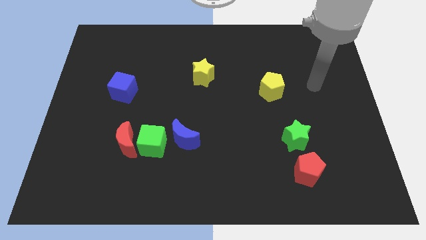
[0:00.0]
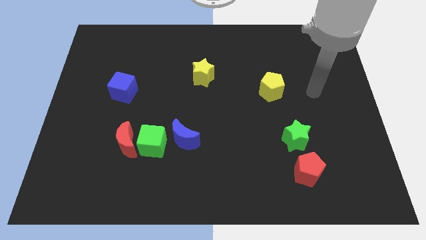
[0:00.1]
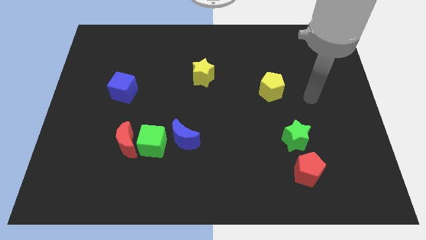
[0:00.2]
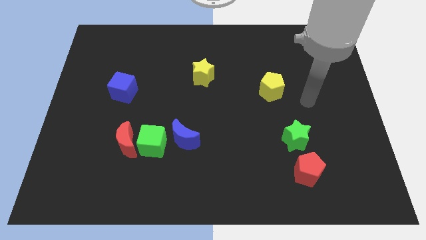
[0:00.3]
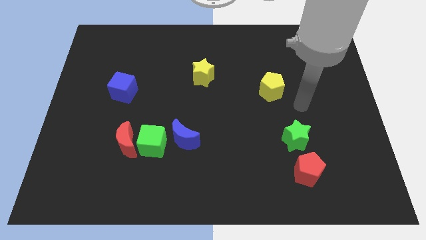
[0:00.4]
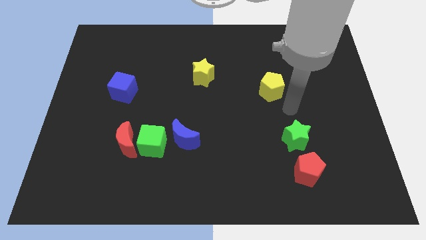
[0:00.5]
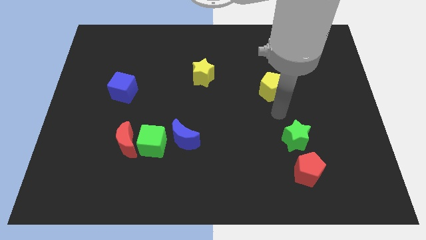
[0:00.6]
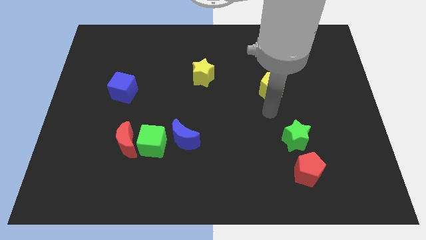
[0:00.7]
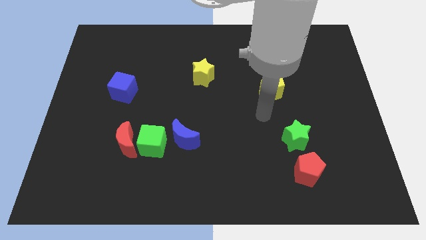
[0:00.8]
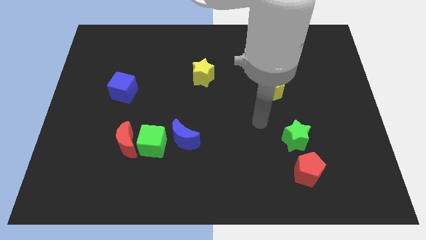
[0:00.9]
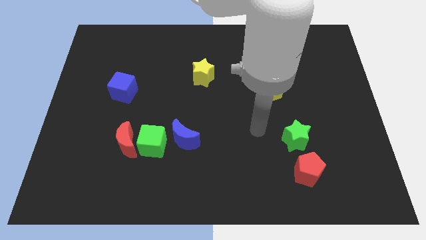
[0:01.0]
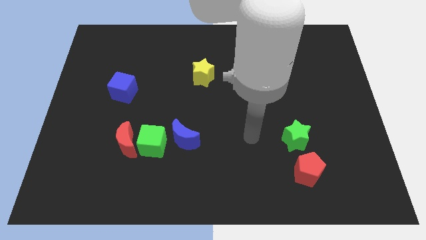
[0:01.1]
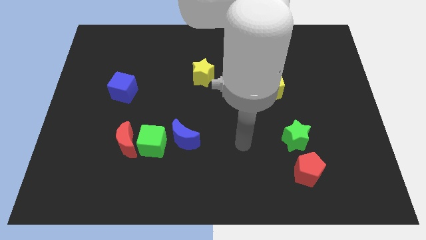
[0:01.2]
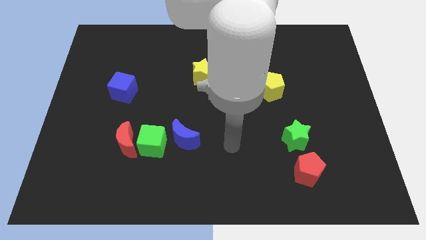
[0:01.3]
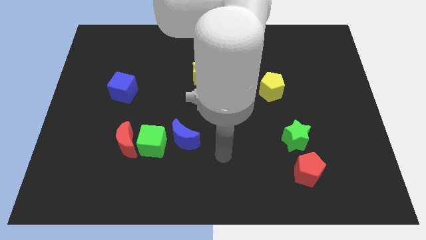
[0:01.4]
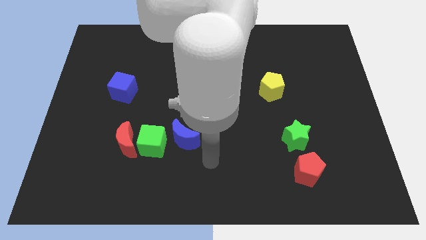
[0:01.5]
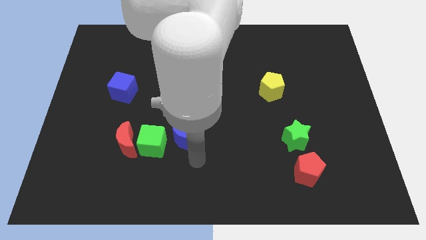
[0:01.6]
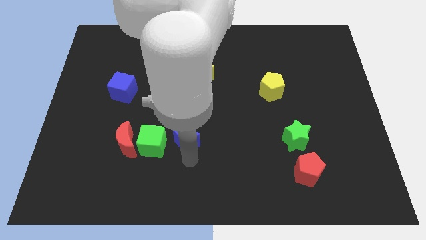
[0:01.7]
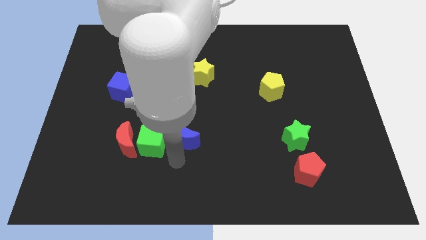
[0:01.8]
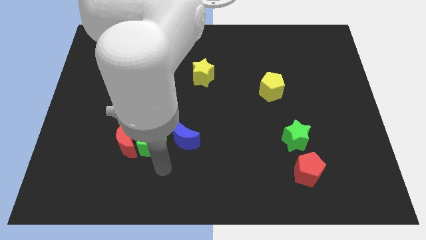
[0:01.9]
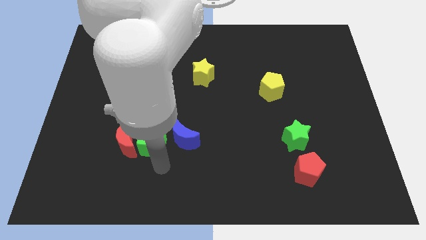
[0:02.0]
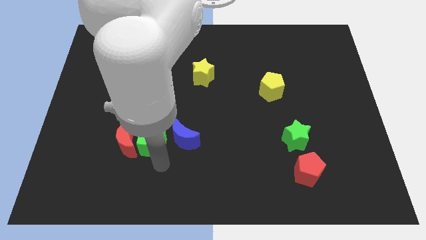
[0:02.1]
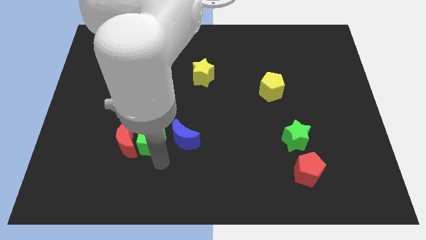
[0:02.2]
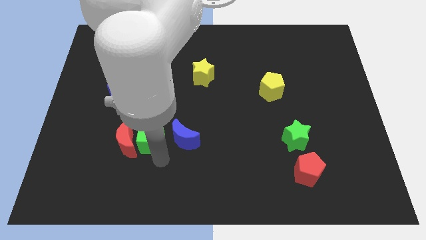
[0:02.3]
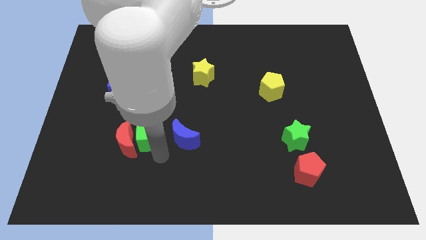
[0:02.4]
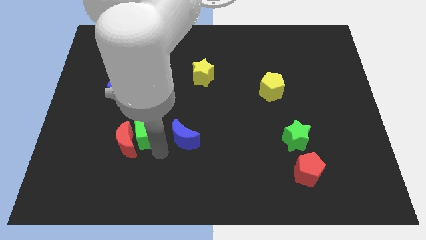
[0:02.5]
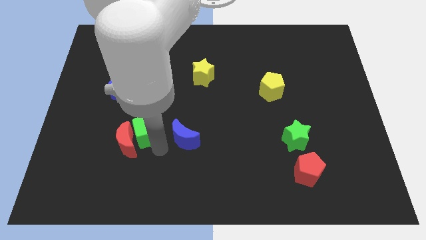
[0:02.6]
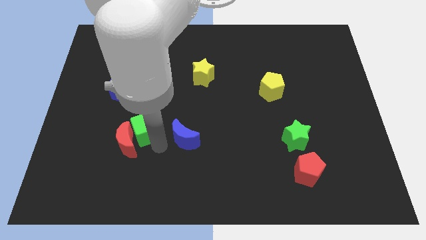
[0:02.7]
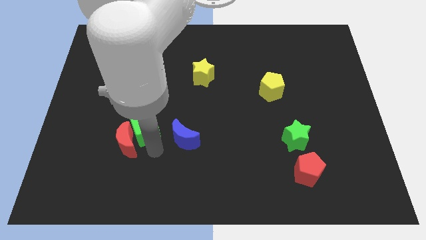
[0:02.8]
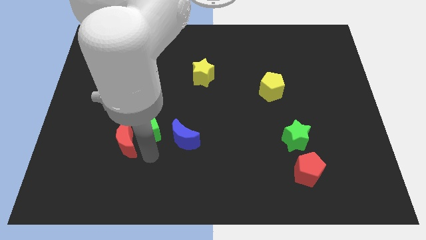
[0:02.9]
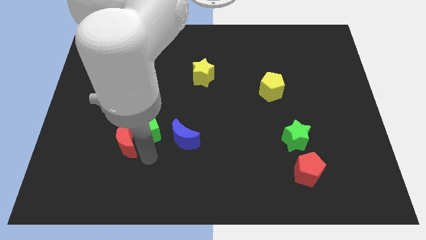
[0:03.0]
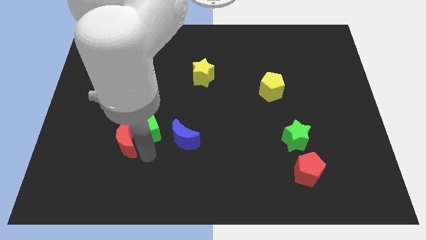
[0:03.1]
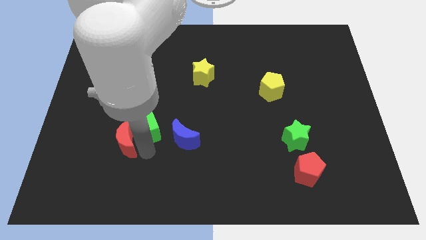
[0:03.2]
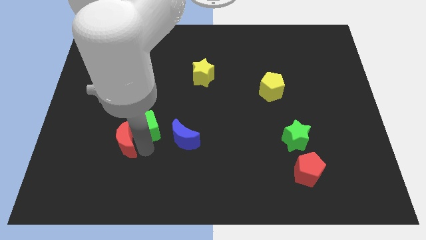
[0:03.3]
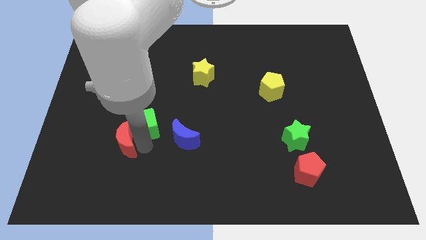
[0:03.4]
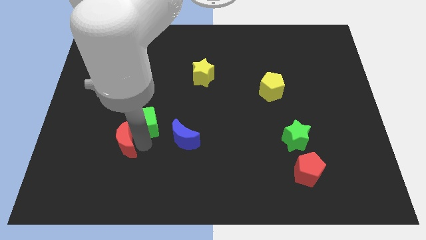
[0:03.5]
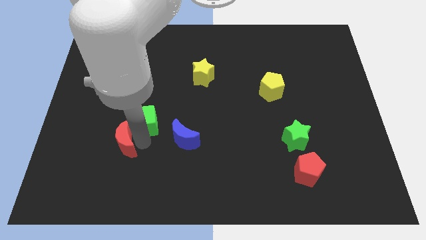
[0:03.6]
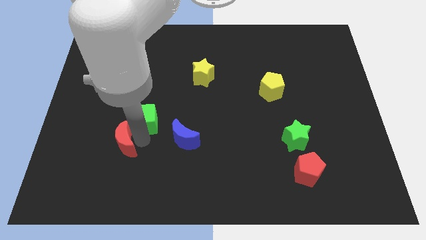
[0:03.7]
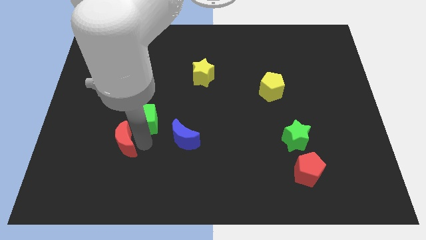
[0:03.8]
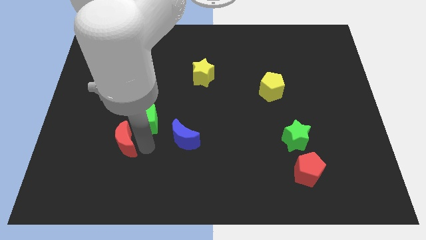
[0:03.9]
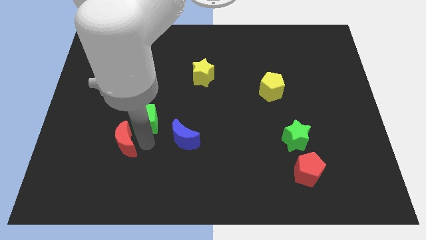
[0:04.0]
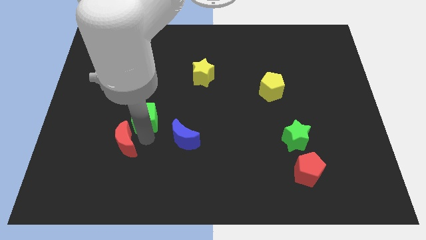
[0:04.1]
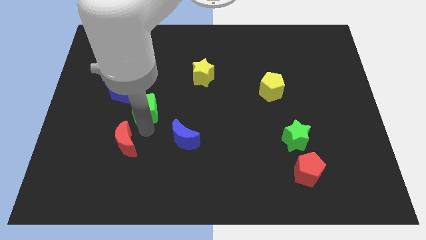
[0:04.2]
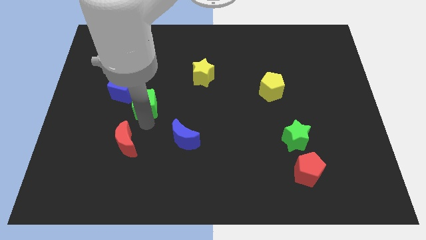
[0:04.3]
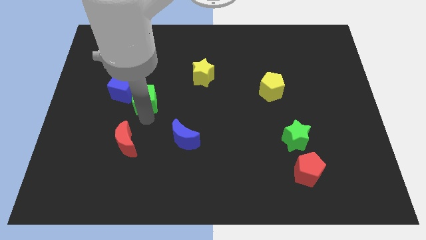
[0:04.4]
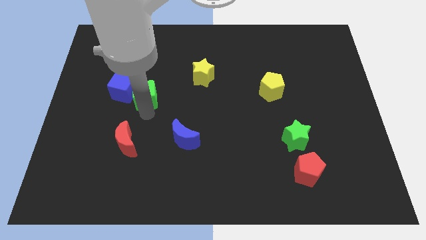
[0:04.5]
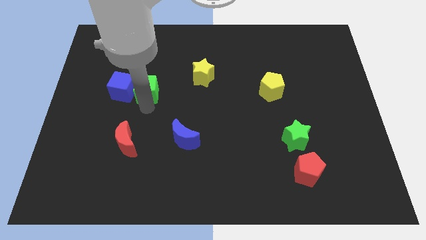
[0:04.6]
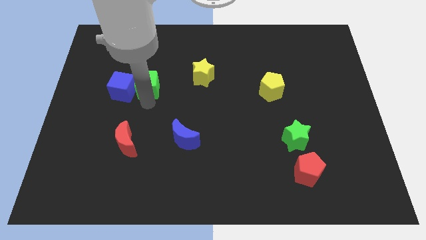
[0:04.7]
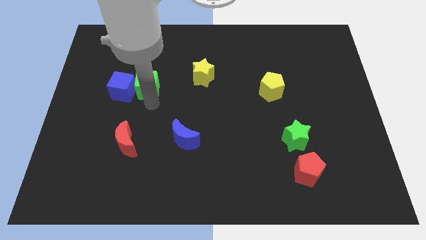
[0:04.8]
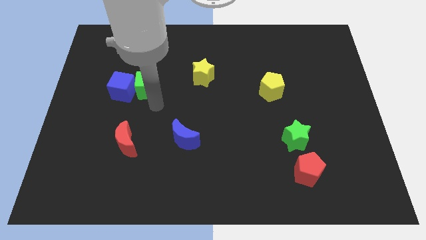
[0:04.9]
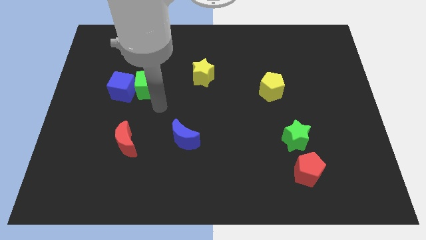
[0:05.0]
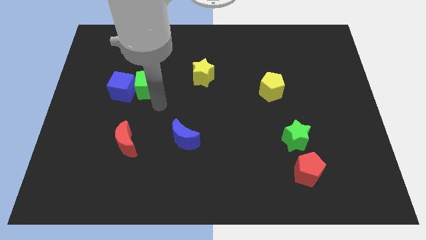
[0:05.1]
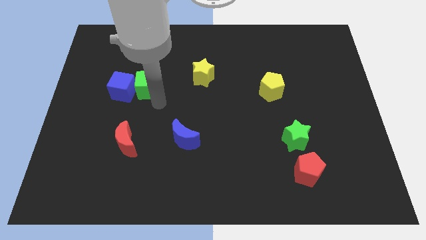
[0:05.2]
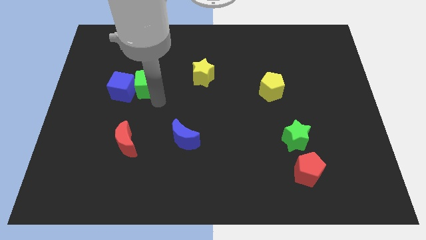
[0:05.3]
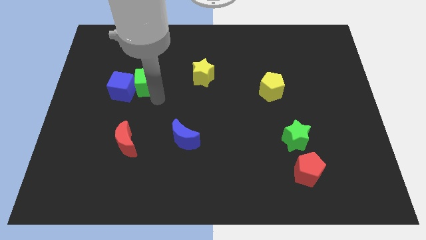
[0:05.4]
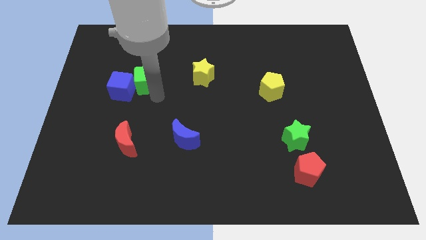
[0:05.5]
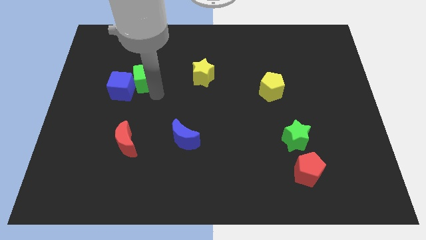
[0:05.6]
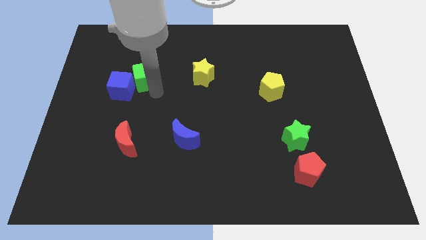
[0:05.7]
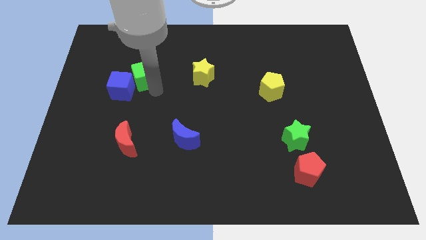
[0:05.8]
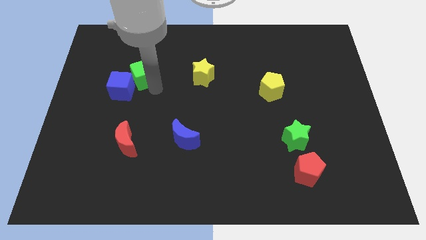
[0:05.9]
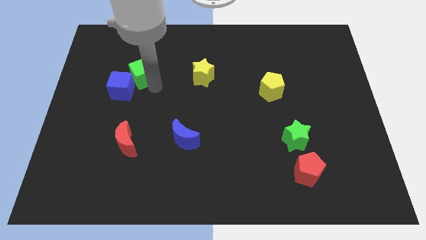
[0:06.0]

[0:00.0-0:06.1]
move the green cube to the top side of the blue cube

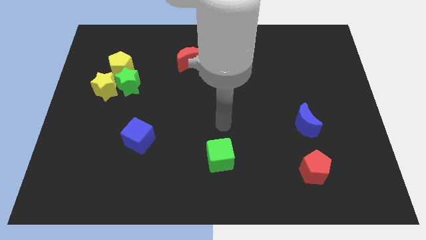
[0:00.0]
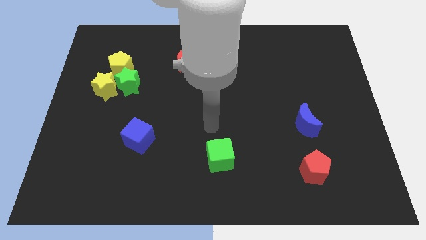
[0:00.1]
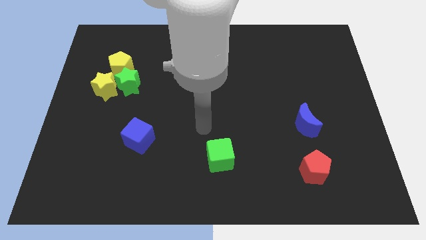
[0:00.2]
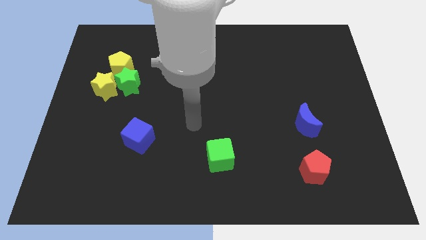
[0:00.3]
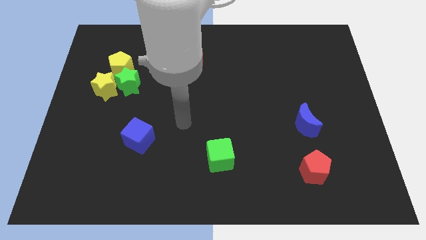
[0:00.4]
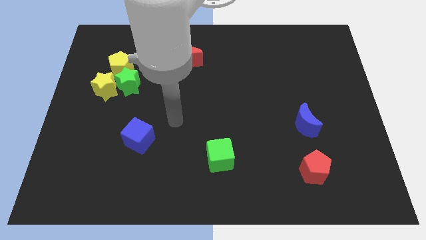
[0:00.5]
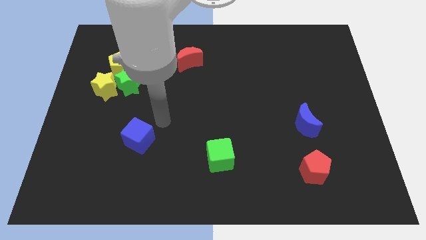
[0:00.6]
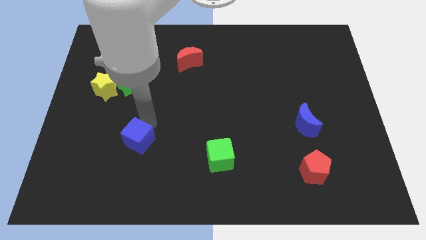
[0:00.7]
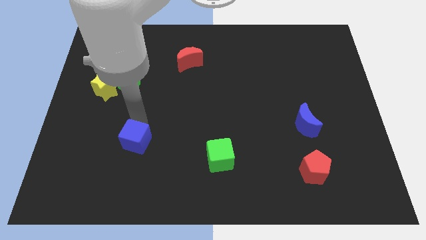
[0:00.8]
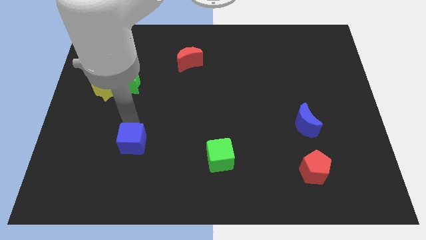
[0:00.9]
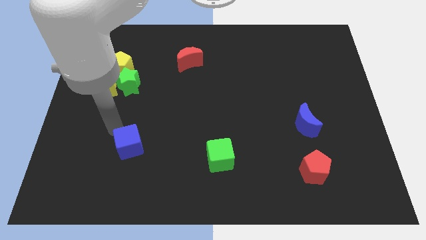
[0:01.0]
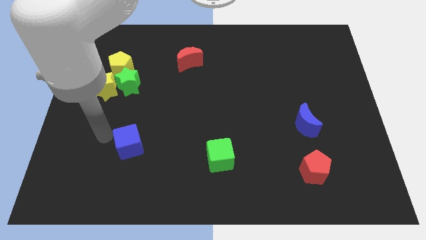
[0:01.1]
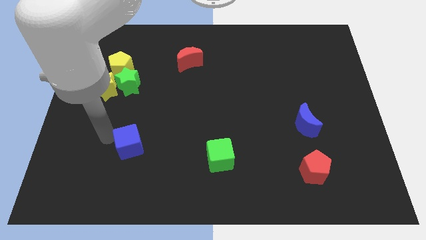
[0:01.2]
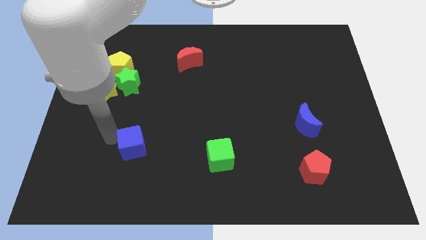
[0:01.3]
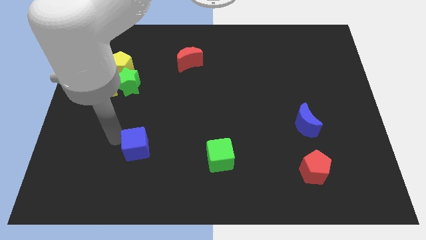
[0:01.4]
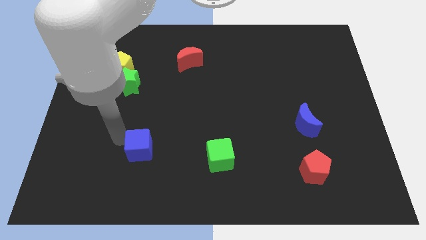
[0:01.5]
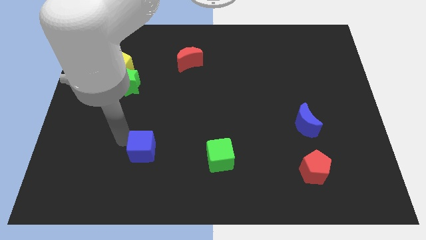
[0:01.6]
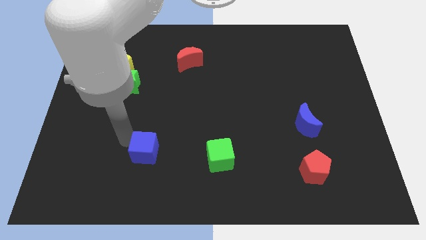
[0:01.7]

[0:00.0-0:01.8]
push the blue cube just left of the green cube
